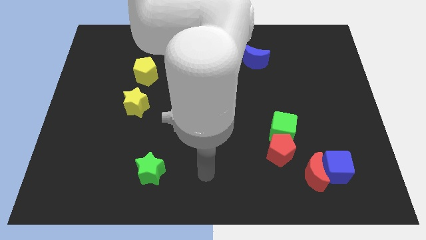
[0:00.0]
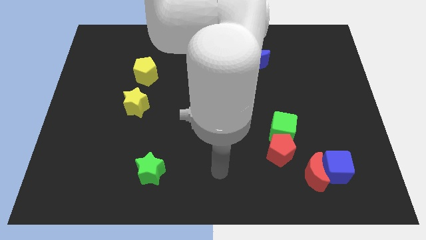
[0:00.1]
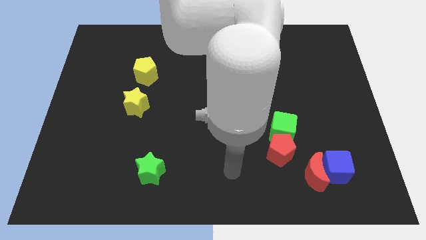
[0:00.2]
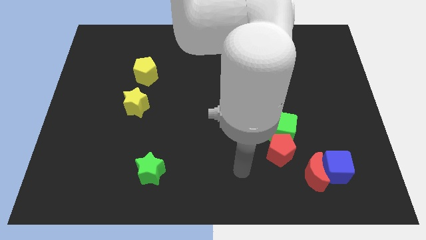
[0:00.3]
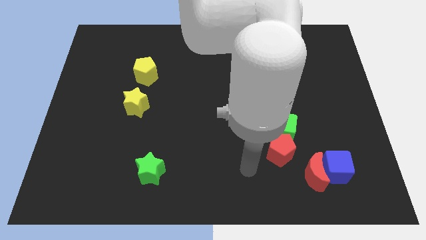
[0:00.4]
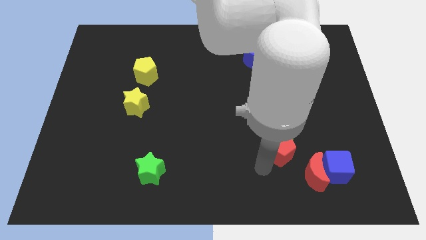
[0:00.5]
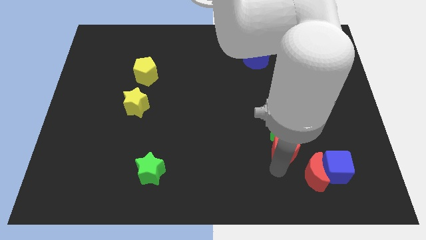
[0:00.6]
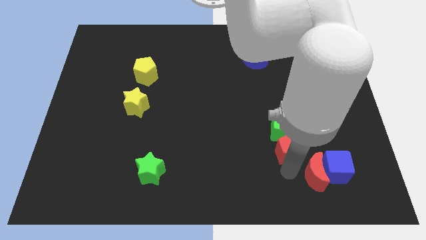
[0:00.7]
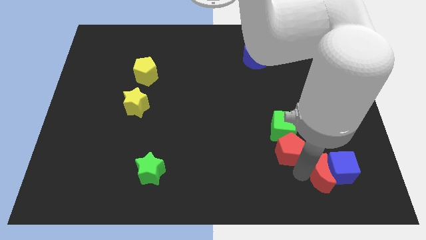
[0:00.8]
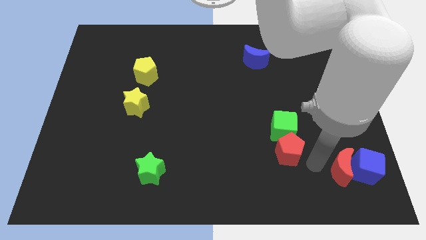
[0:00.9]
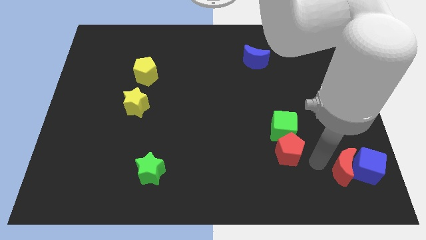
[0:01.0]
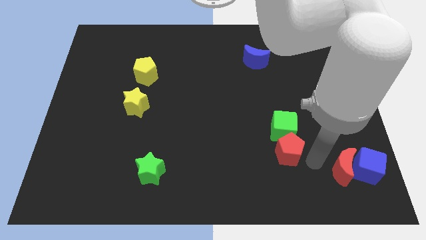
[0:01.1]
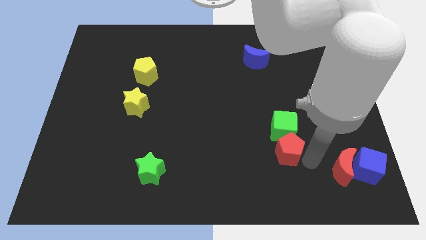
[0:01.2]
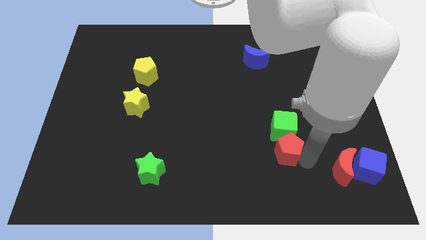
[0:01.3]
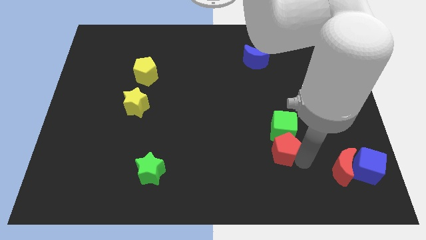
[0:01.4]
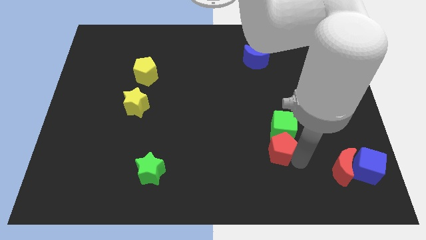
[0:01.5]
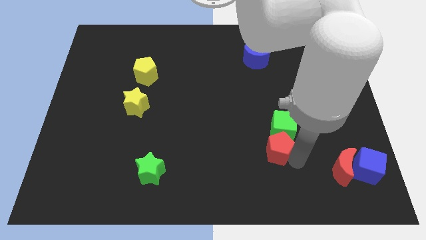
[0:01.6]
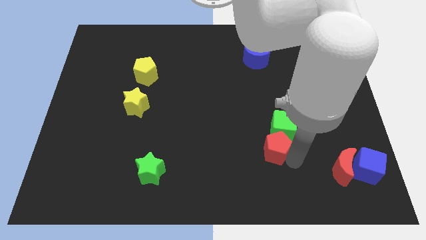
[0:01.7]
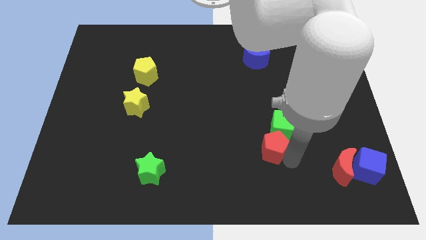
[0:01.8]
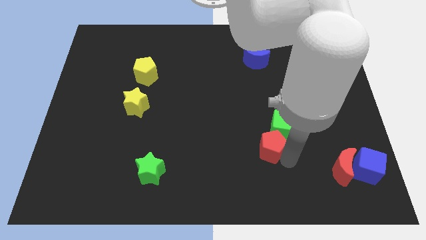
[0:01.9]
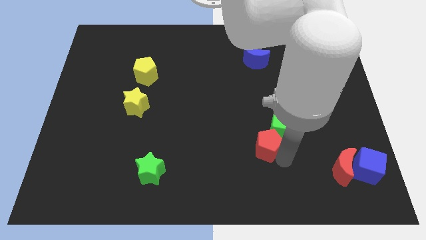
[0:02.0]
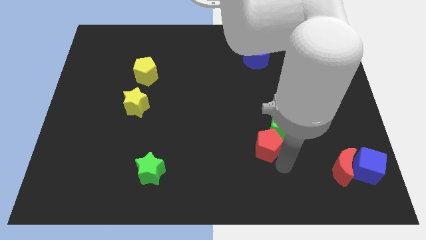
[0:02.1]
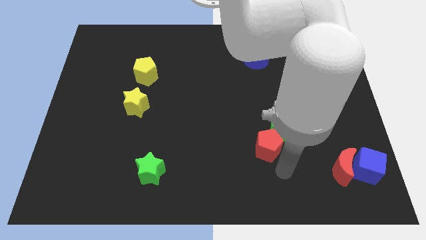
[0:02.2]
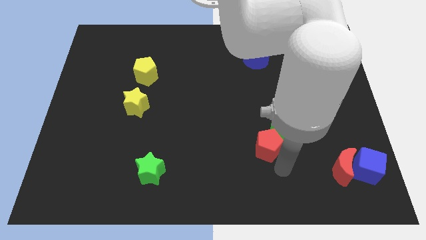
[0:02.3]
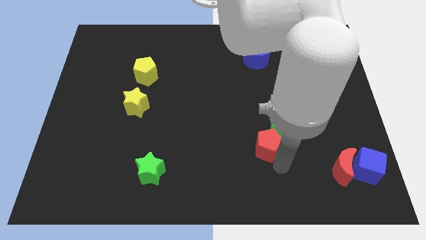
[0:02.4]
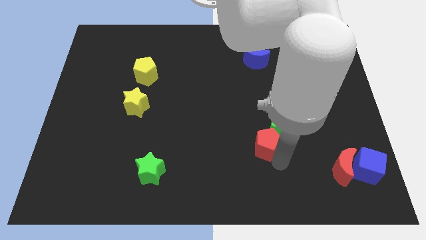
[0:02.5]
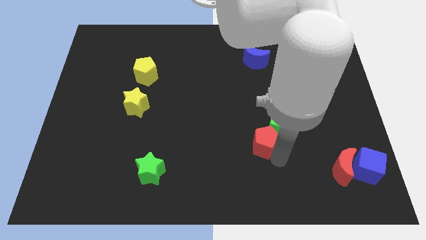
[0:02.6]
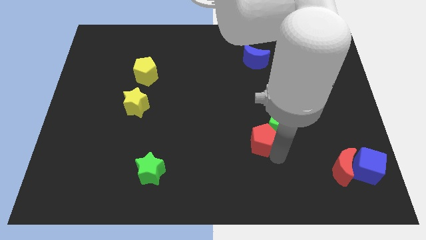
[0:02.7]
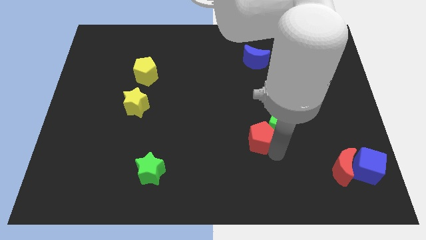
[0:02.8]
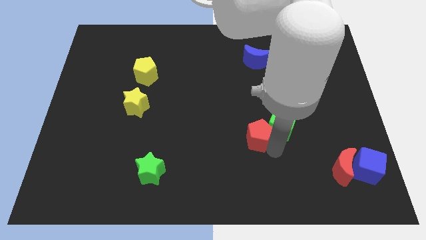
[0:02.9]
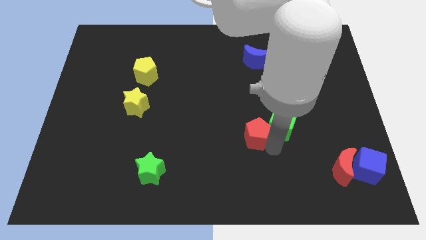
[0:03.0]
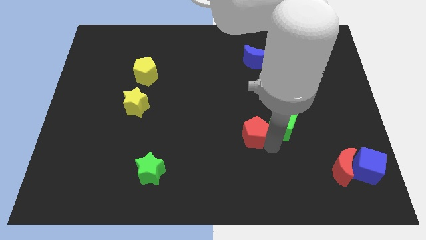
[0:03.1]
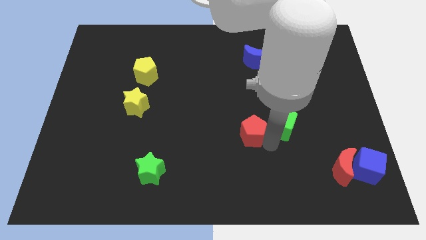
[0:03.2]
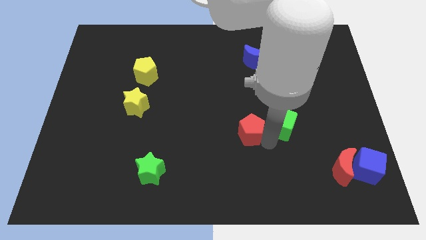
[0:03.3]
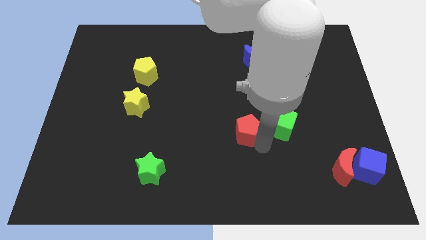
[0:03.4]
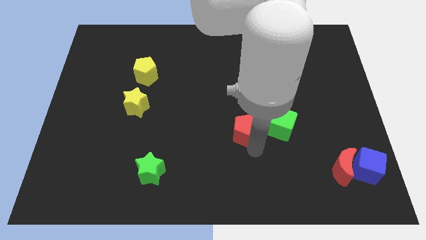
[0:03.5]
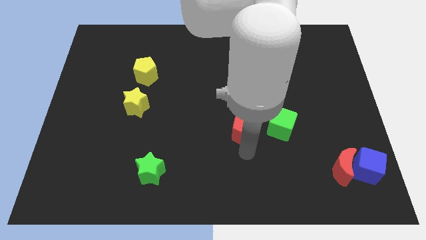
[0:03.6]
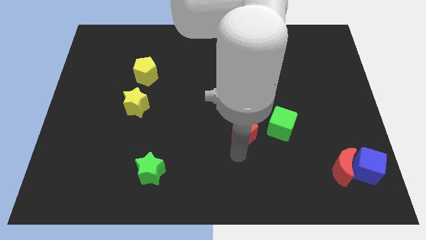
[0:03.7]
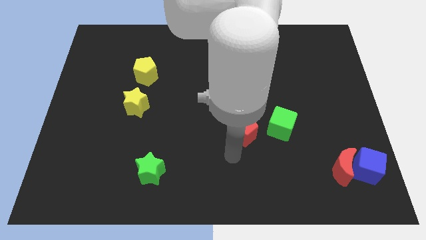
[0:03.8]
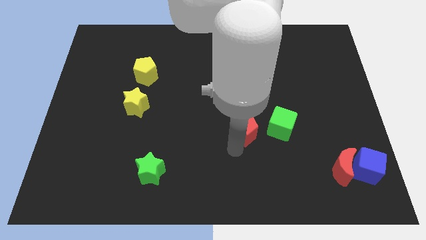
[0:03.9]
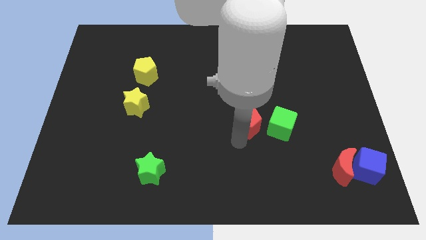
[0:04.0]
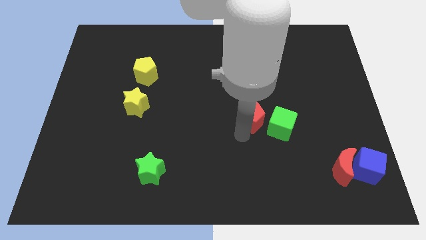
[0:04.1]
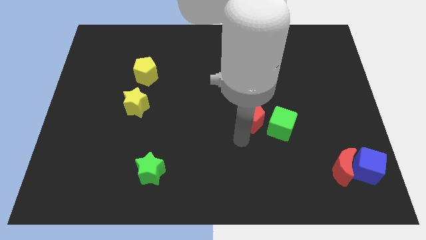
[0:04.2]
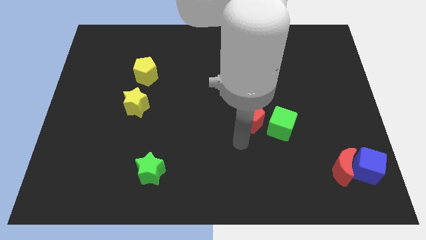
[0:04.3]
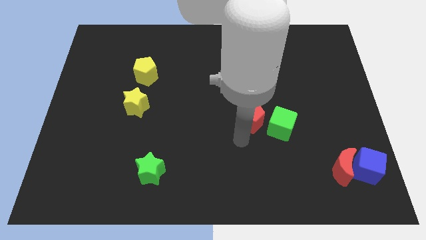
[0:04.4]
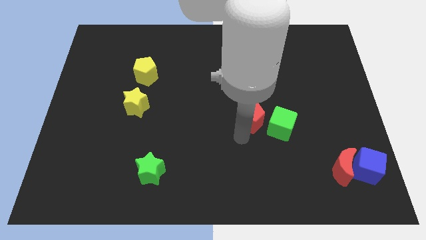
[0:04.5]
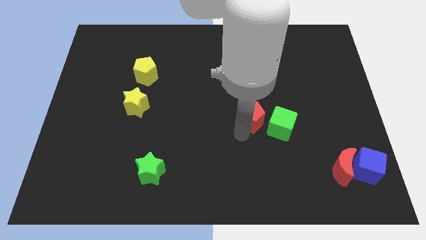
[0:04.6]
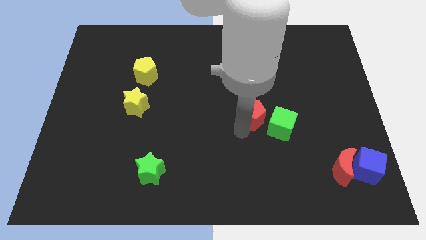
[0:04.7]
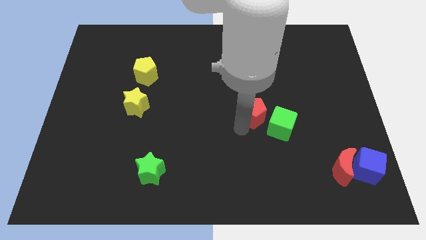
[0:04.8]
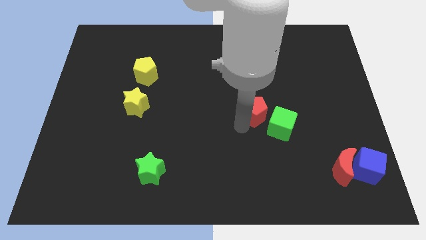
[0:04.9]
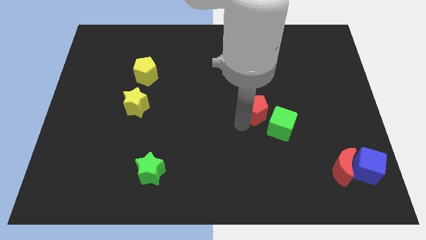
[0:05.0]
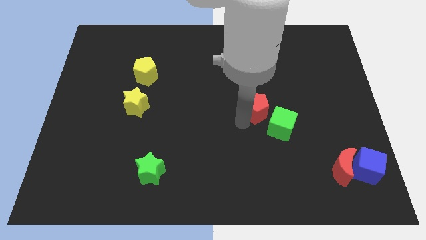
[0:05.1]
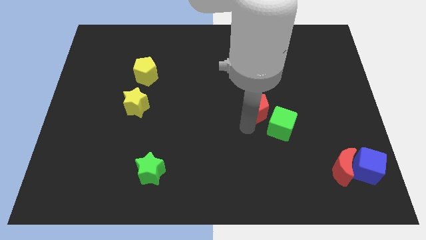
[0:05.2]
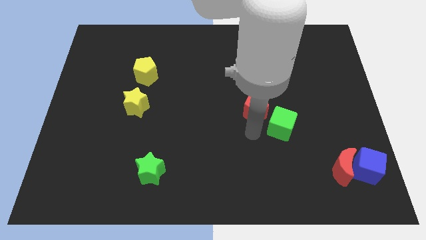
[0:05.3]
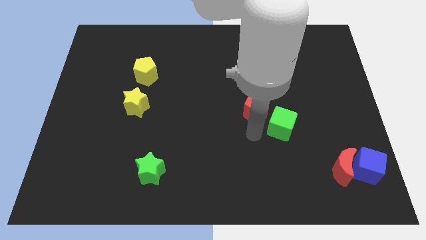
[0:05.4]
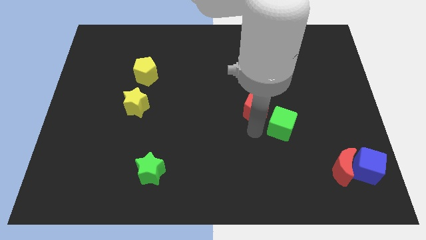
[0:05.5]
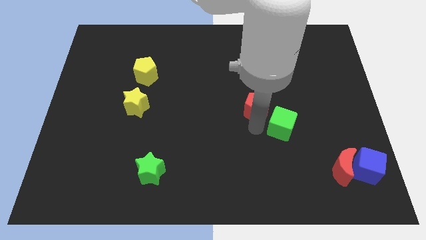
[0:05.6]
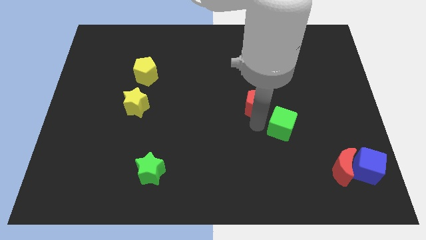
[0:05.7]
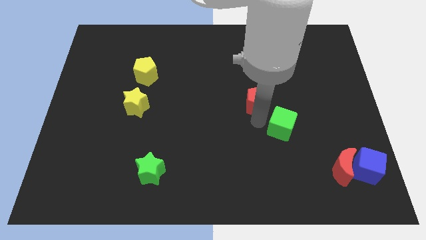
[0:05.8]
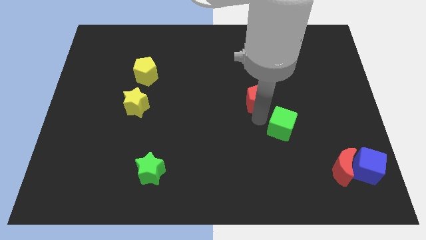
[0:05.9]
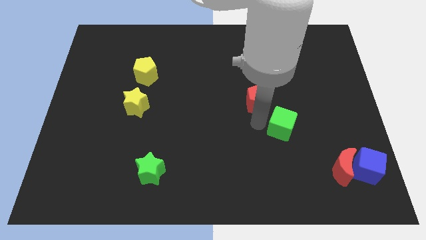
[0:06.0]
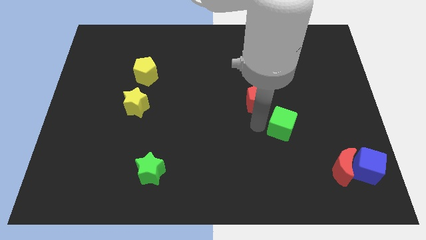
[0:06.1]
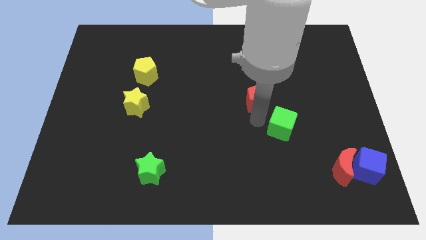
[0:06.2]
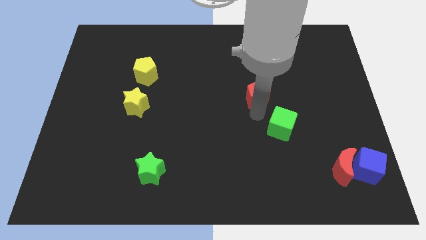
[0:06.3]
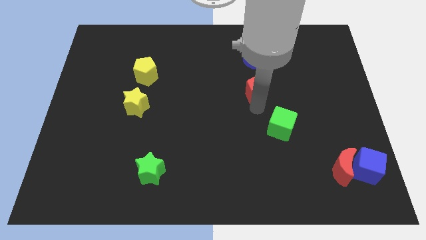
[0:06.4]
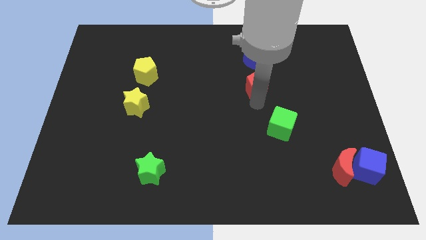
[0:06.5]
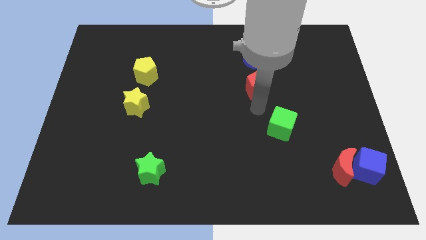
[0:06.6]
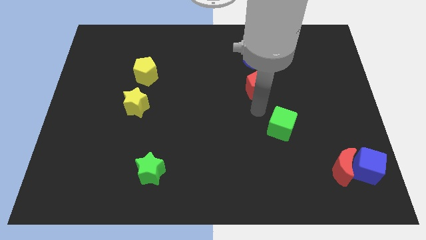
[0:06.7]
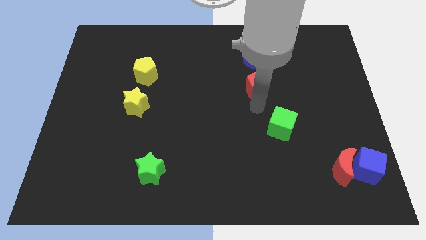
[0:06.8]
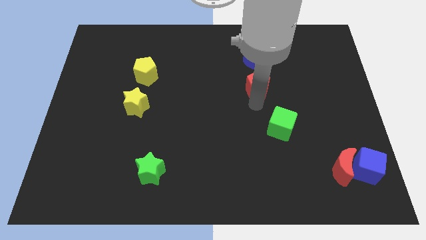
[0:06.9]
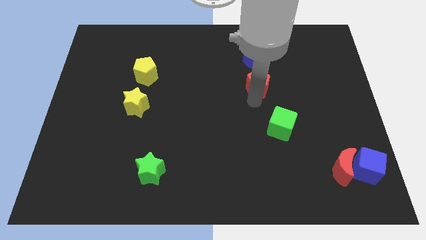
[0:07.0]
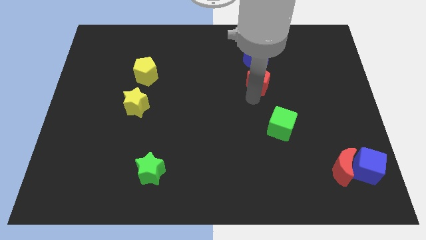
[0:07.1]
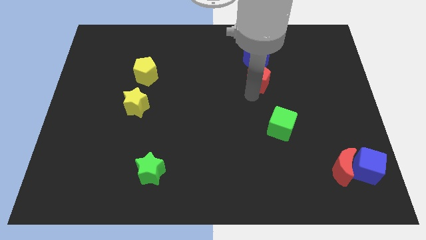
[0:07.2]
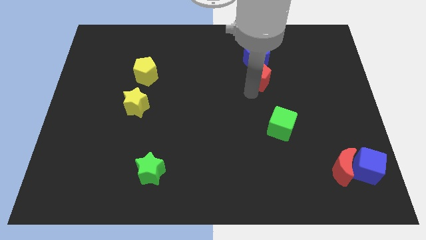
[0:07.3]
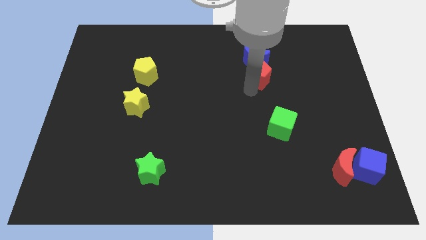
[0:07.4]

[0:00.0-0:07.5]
push the red pentagon next to the blue moon

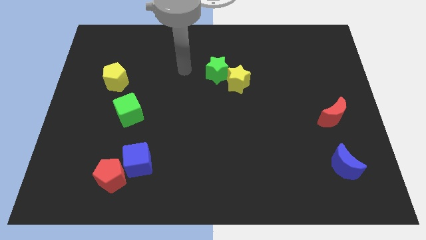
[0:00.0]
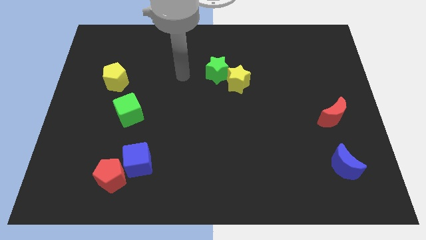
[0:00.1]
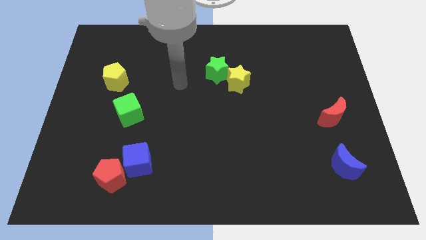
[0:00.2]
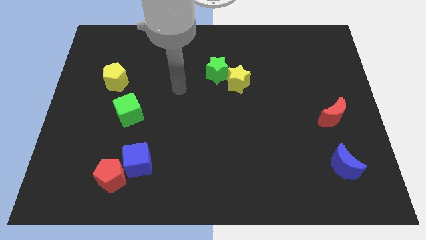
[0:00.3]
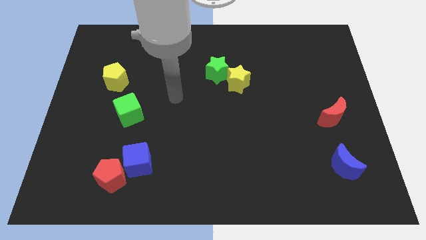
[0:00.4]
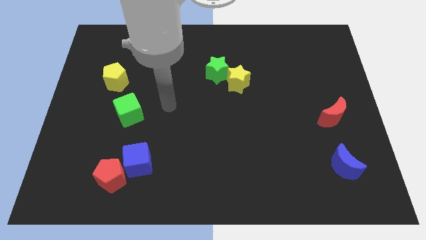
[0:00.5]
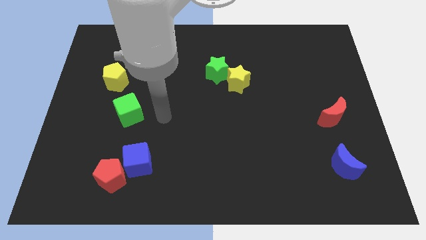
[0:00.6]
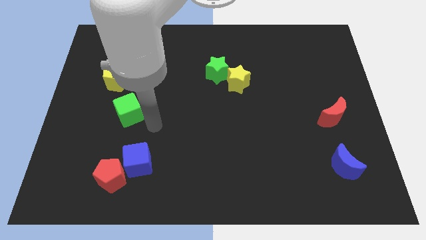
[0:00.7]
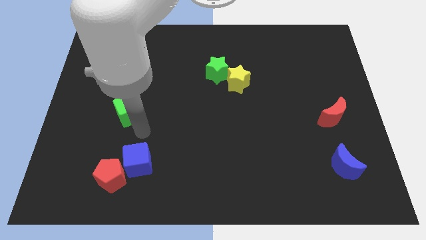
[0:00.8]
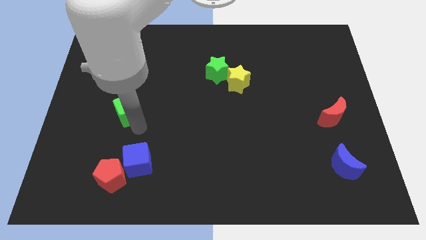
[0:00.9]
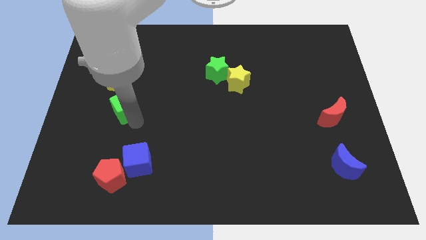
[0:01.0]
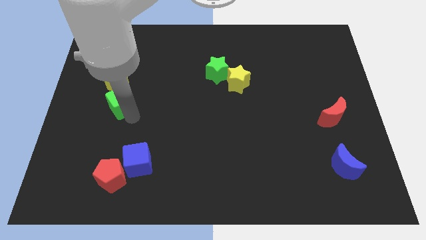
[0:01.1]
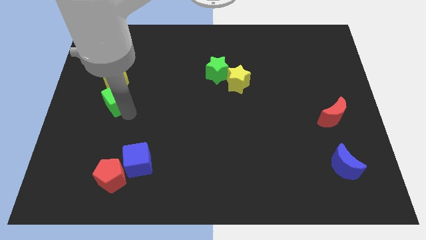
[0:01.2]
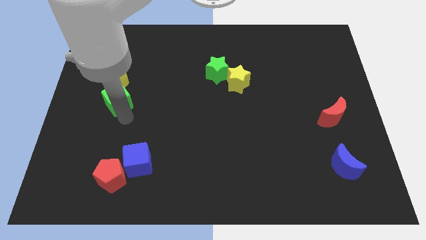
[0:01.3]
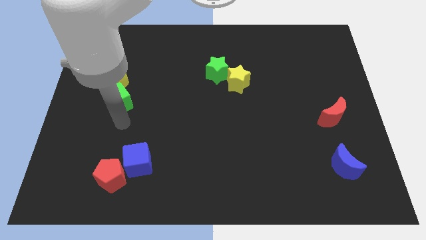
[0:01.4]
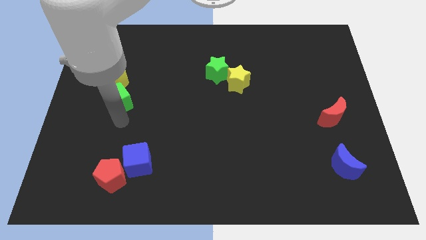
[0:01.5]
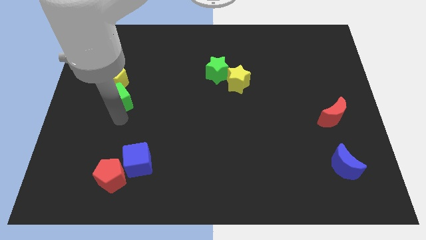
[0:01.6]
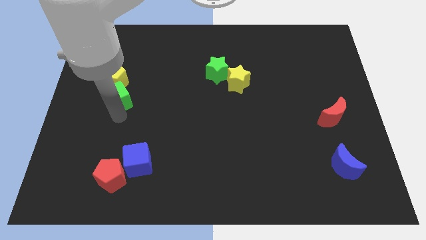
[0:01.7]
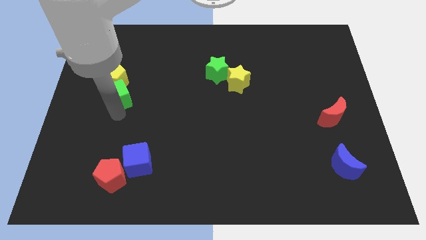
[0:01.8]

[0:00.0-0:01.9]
put the green cube close to the yellow pentagon
